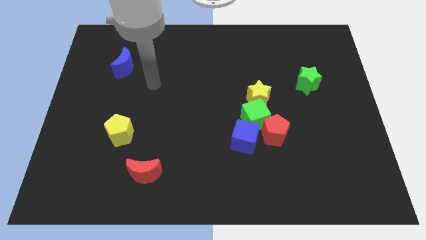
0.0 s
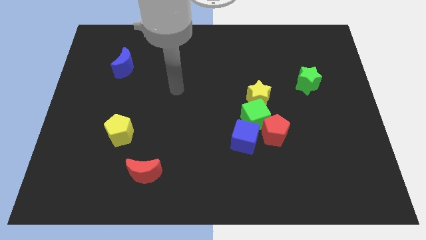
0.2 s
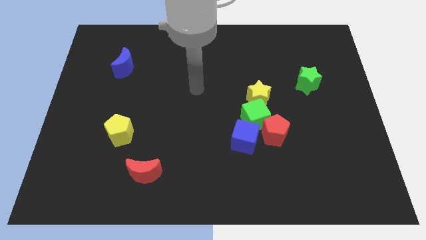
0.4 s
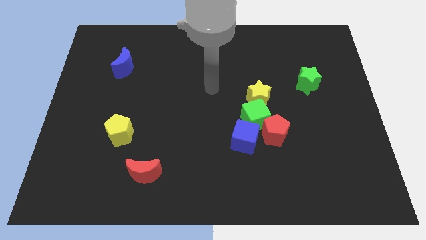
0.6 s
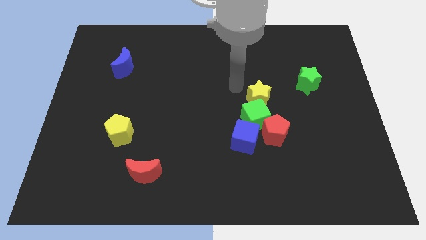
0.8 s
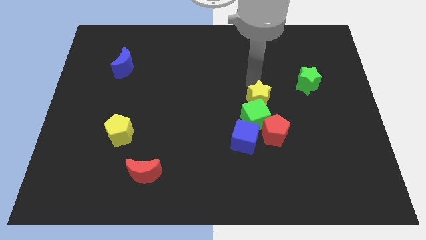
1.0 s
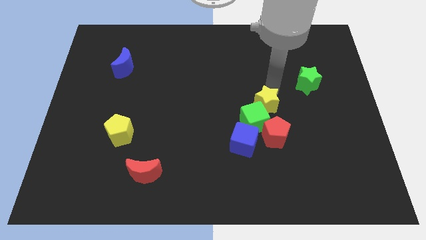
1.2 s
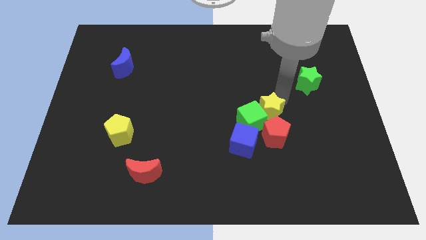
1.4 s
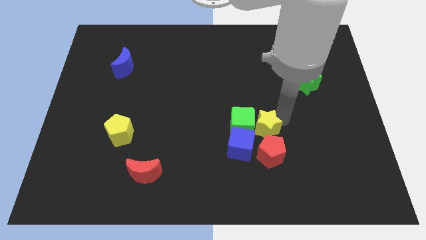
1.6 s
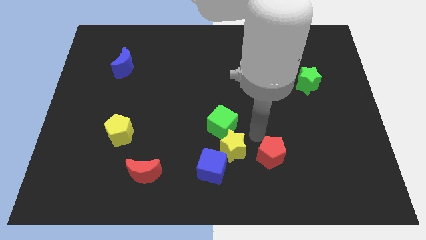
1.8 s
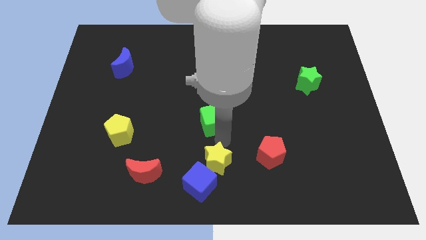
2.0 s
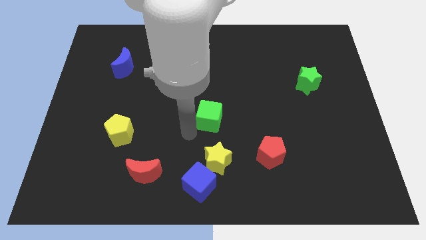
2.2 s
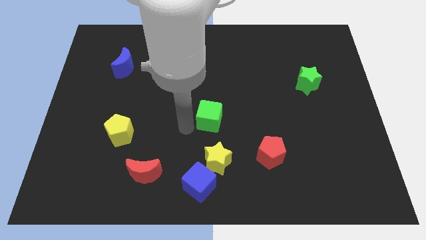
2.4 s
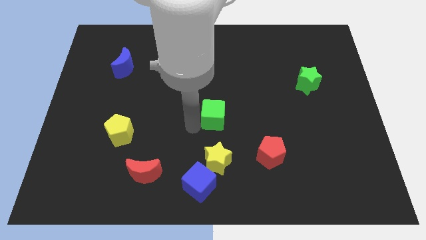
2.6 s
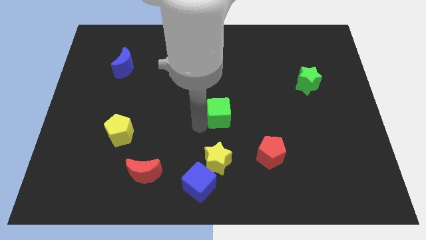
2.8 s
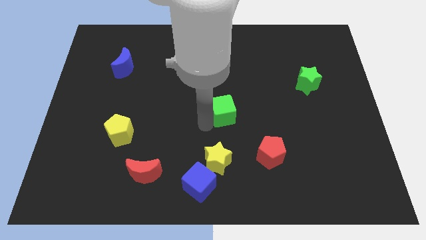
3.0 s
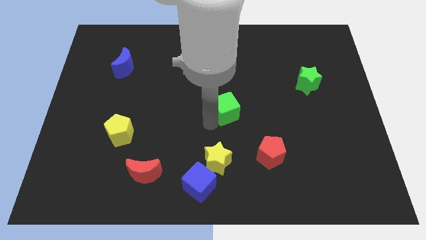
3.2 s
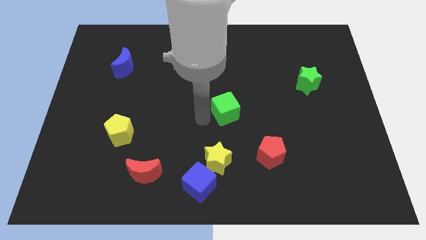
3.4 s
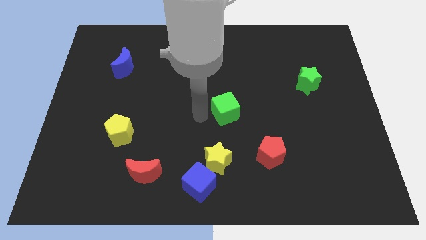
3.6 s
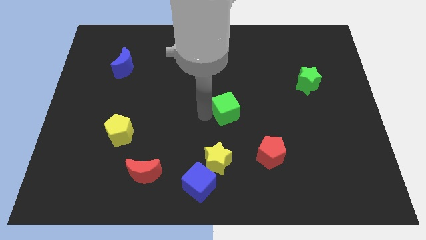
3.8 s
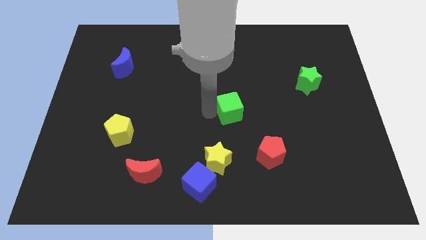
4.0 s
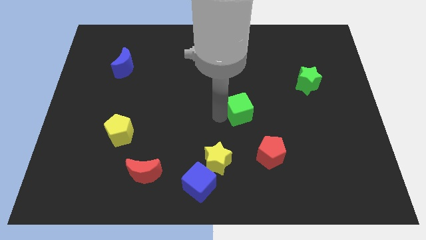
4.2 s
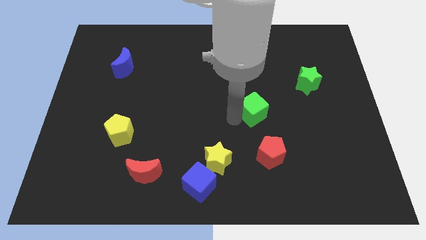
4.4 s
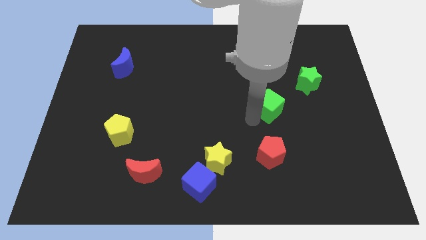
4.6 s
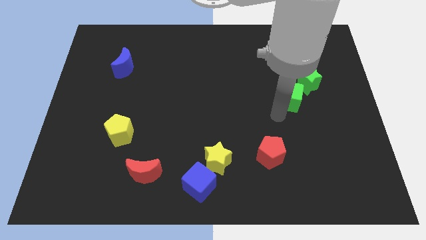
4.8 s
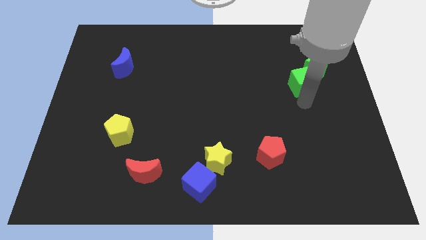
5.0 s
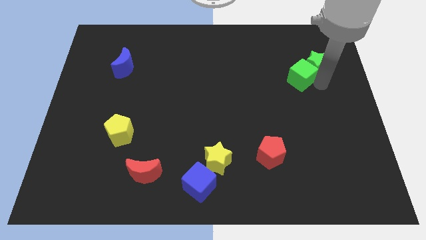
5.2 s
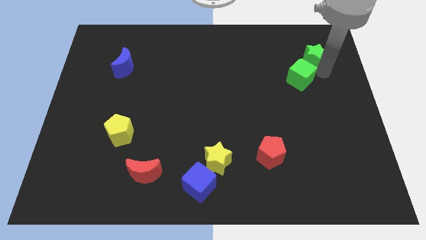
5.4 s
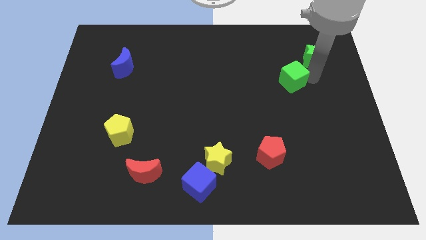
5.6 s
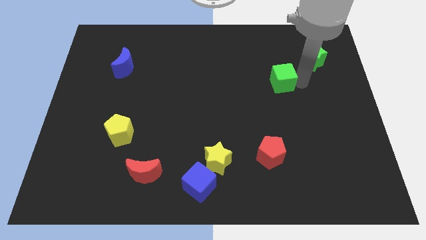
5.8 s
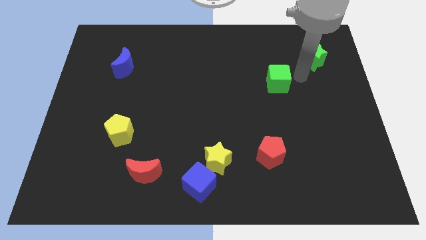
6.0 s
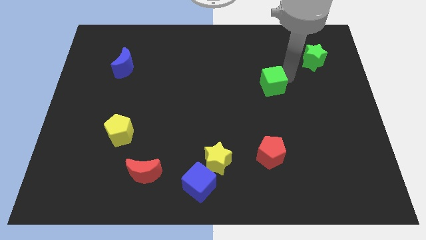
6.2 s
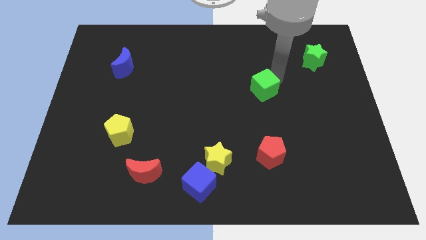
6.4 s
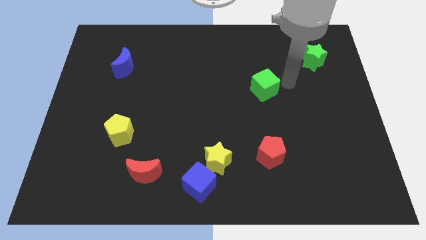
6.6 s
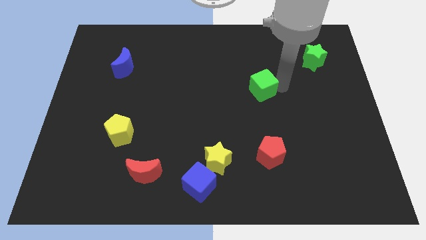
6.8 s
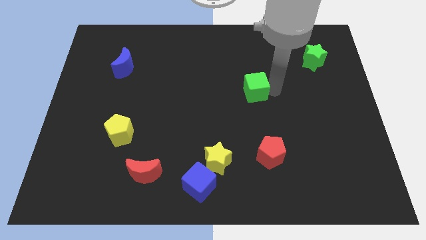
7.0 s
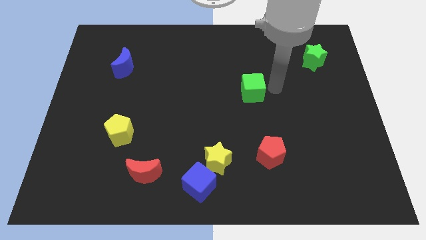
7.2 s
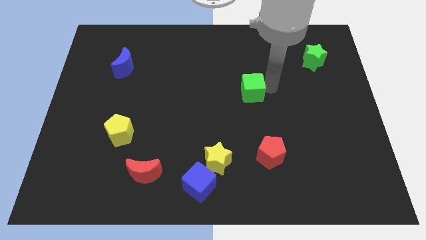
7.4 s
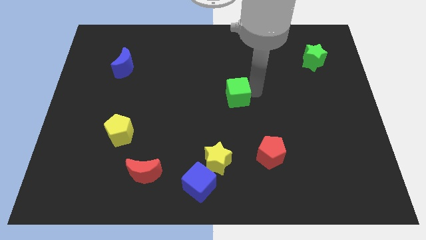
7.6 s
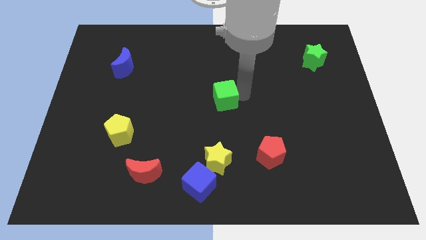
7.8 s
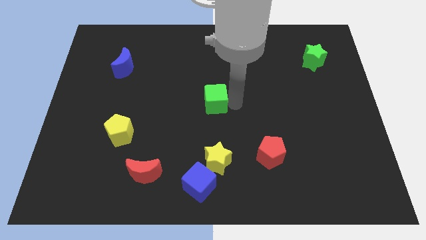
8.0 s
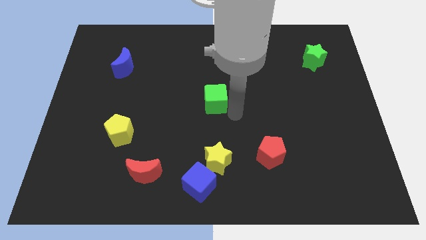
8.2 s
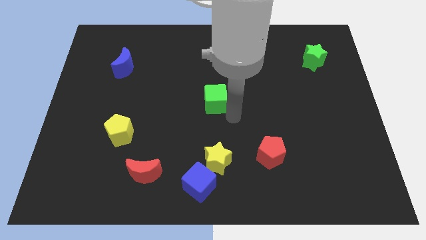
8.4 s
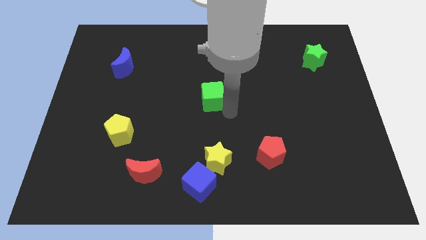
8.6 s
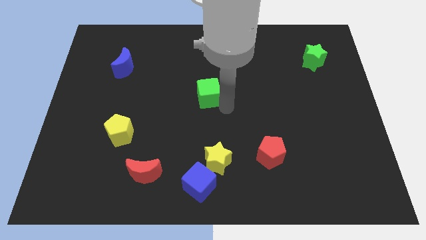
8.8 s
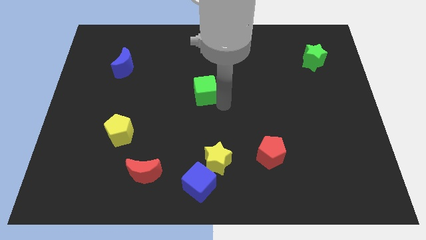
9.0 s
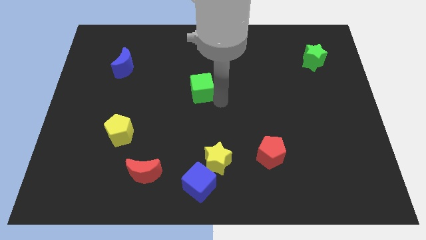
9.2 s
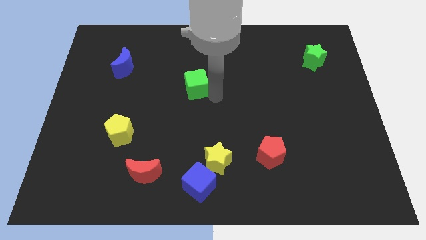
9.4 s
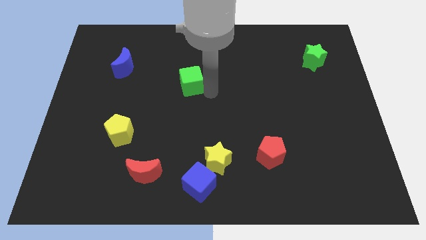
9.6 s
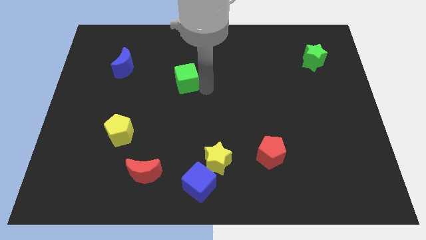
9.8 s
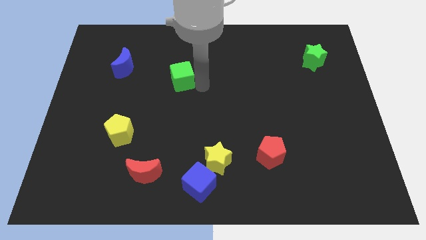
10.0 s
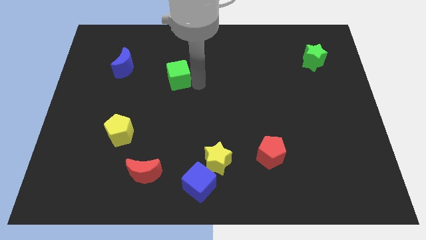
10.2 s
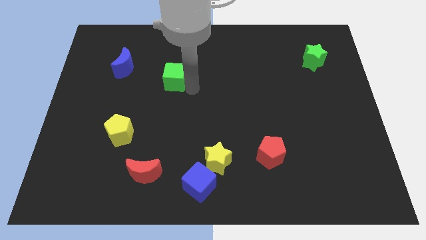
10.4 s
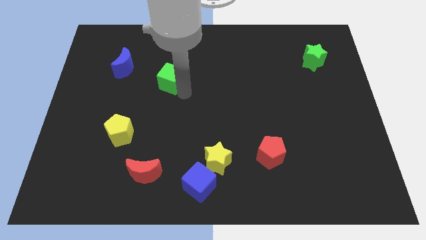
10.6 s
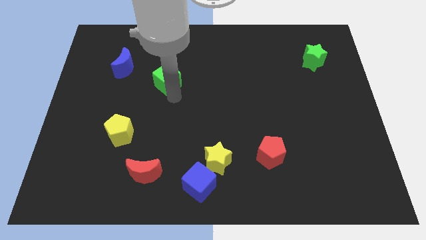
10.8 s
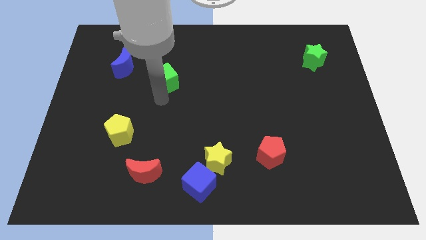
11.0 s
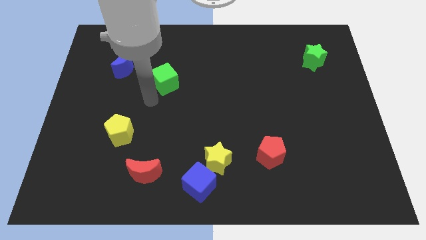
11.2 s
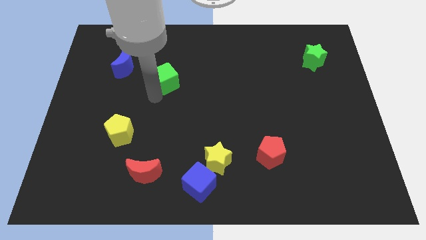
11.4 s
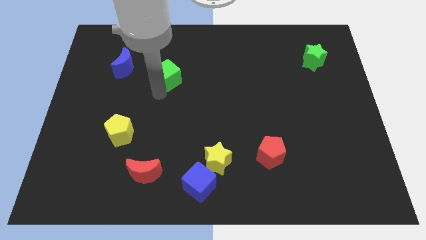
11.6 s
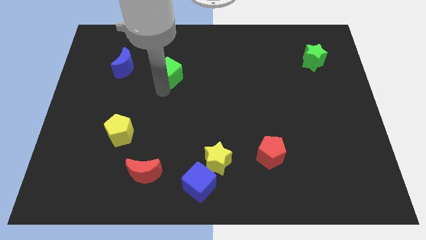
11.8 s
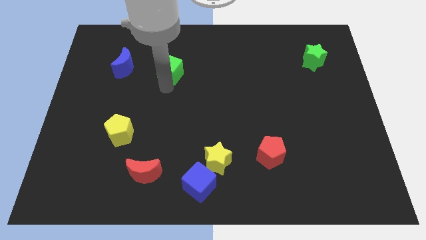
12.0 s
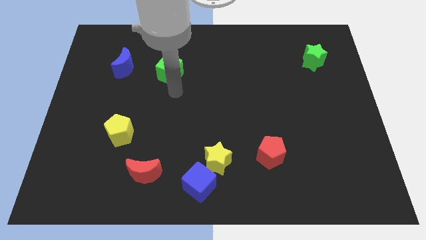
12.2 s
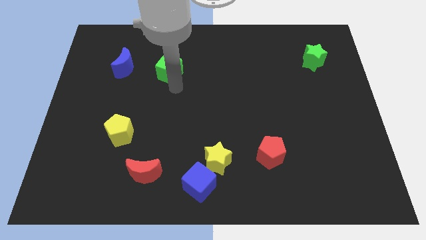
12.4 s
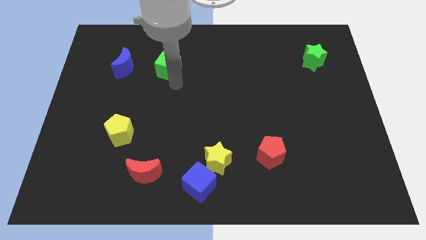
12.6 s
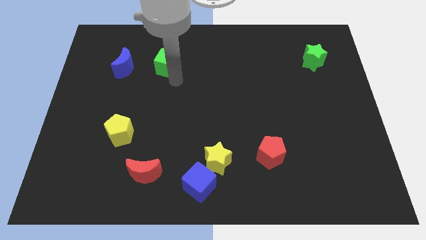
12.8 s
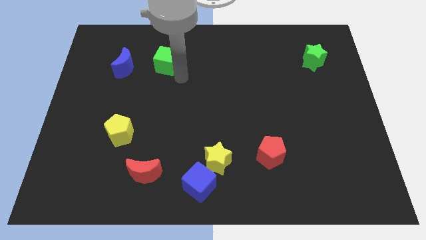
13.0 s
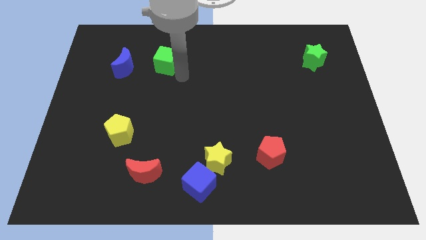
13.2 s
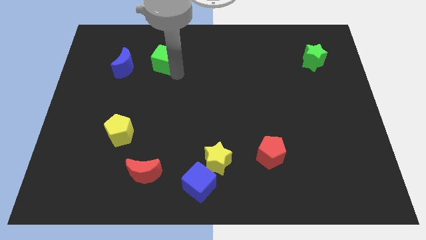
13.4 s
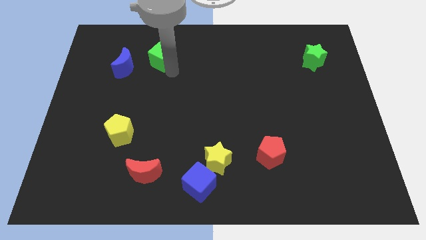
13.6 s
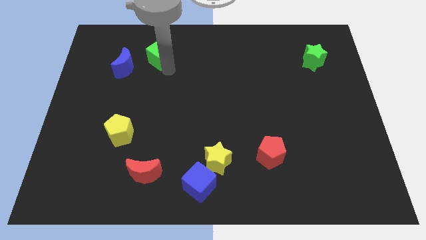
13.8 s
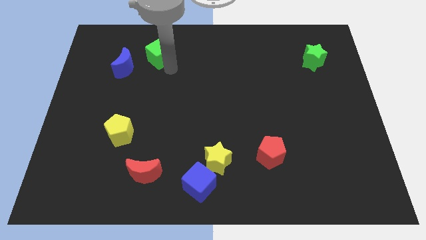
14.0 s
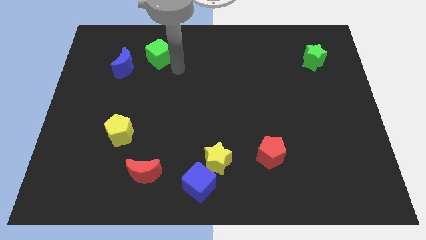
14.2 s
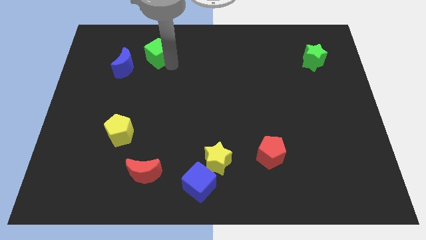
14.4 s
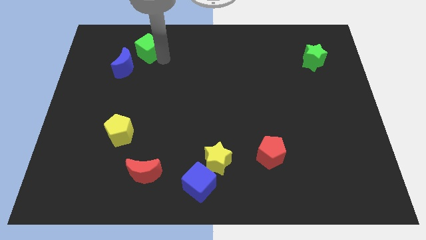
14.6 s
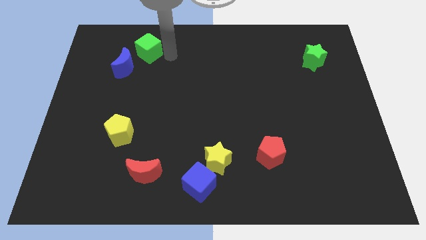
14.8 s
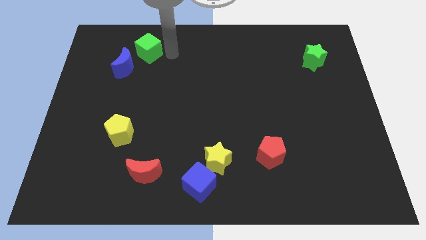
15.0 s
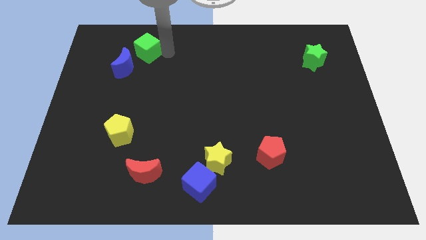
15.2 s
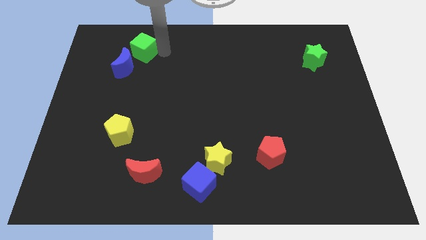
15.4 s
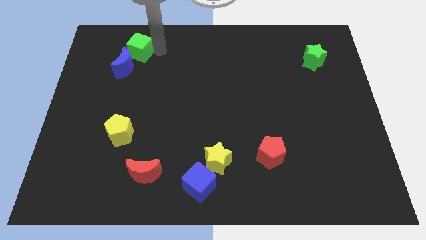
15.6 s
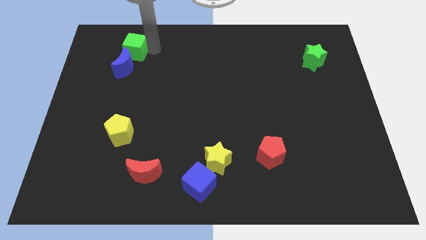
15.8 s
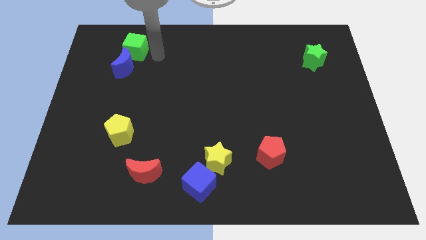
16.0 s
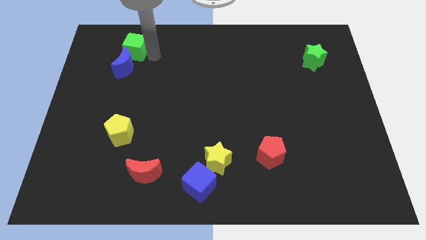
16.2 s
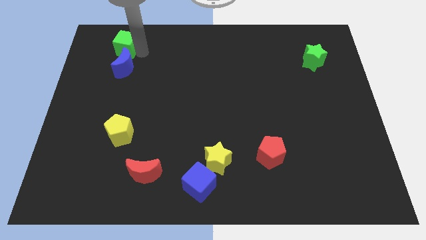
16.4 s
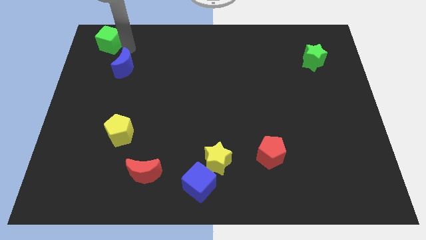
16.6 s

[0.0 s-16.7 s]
slide the green cube to the top left corner
